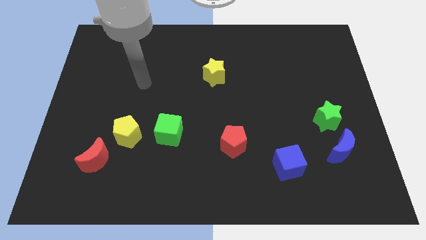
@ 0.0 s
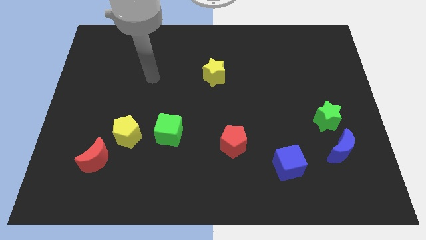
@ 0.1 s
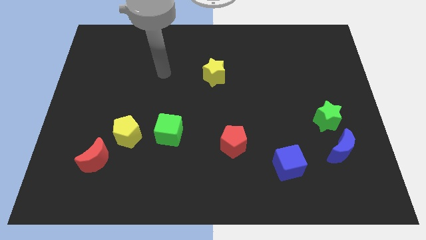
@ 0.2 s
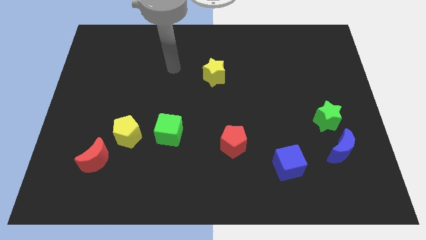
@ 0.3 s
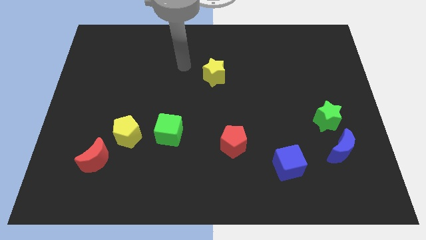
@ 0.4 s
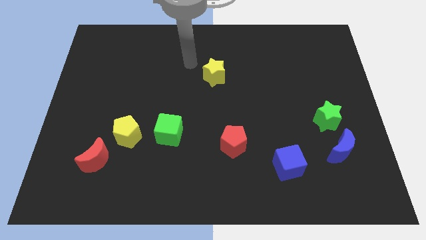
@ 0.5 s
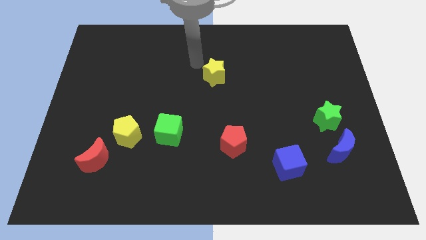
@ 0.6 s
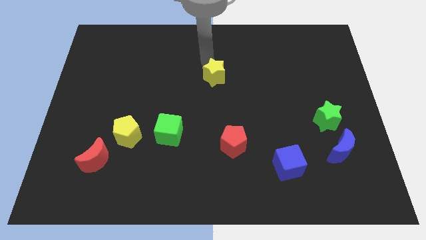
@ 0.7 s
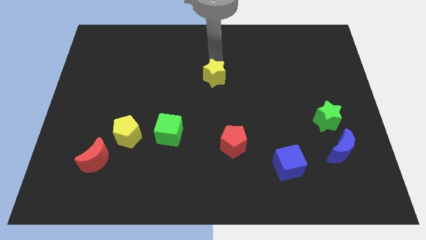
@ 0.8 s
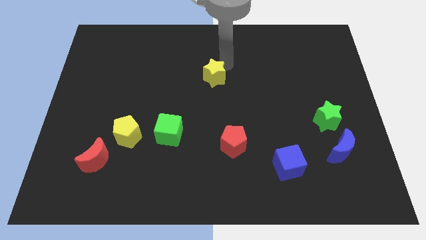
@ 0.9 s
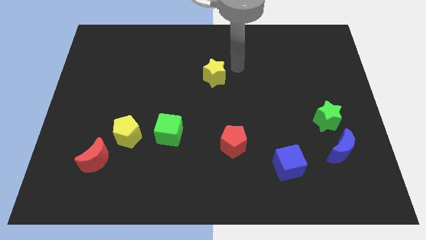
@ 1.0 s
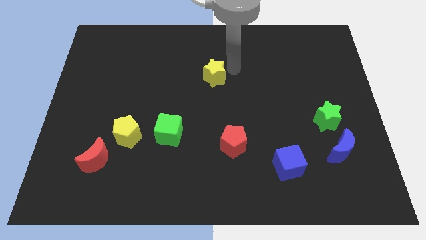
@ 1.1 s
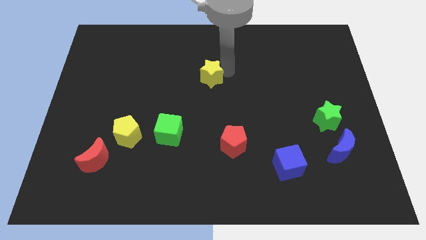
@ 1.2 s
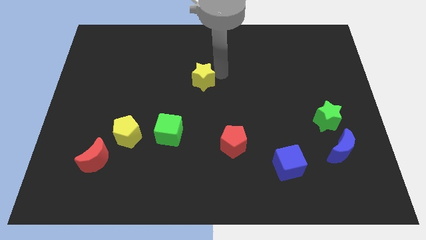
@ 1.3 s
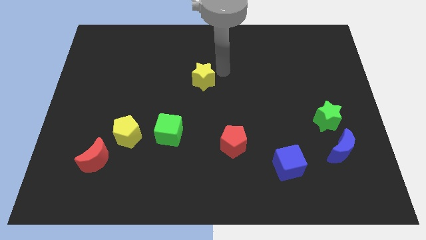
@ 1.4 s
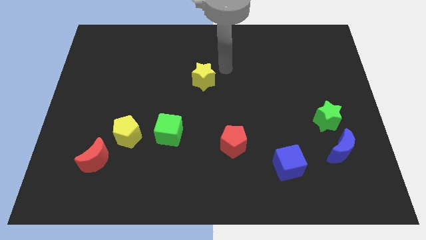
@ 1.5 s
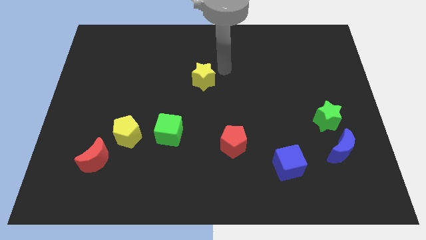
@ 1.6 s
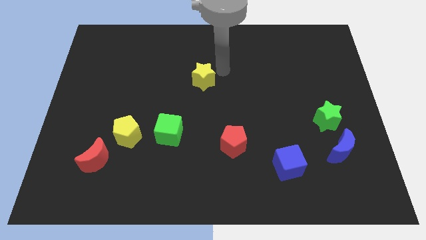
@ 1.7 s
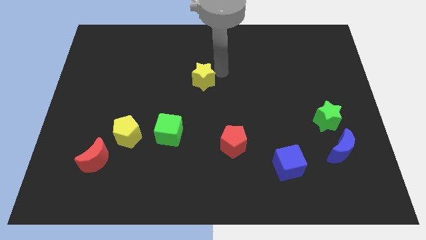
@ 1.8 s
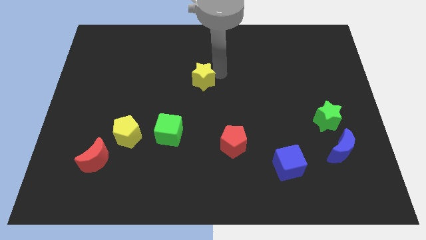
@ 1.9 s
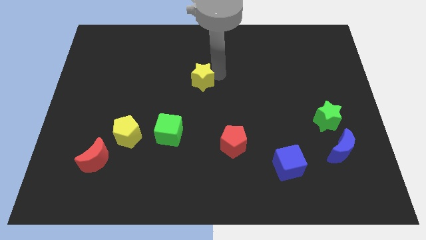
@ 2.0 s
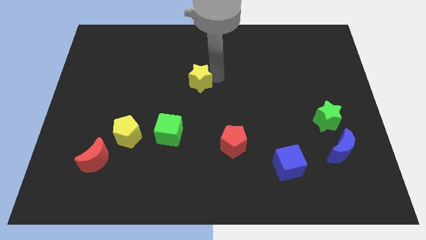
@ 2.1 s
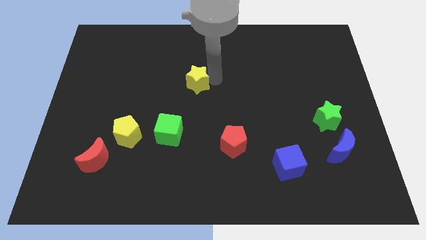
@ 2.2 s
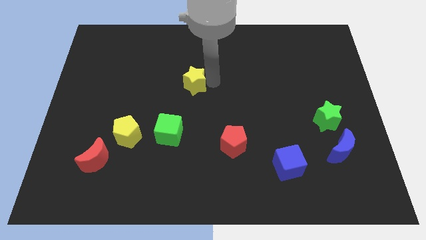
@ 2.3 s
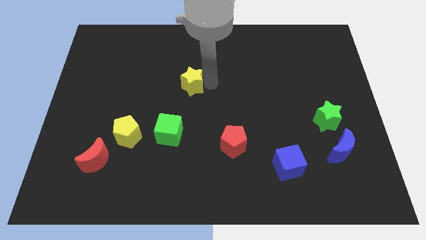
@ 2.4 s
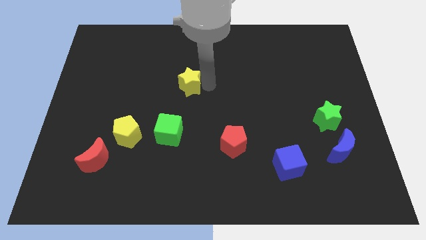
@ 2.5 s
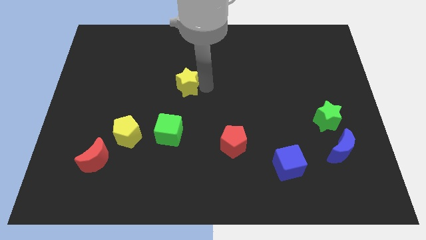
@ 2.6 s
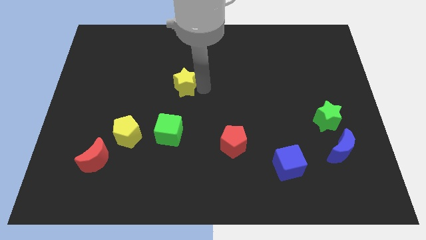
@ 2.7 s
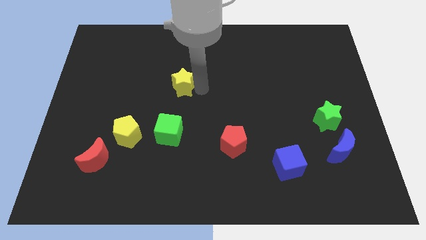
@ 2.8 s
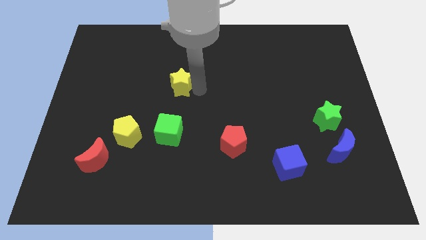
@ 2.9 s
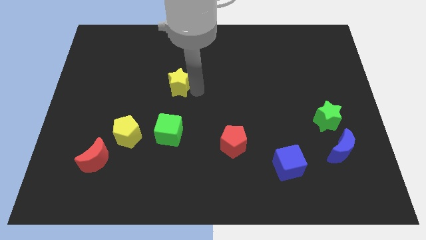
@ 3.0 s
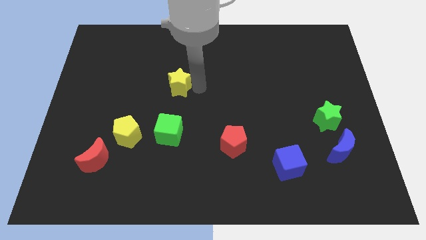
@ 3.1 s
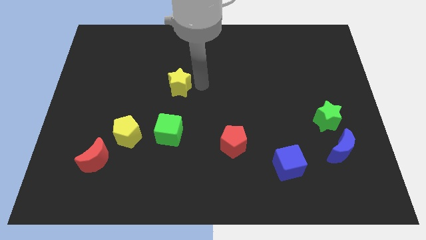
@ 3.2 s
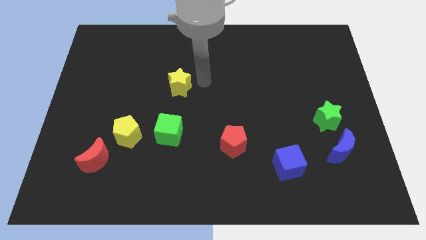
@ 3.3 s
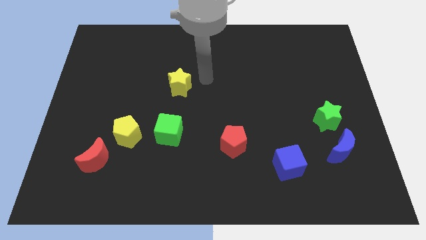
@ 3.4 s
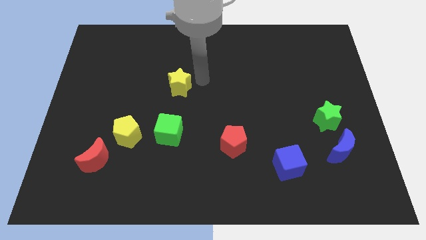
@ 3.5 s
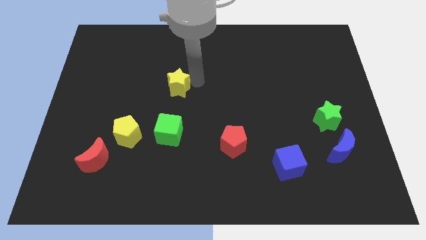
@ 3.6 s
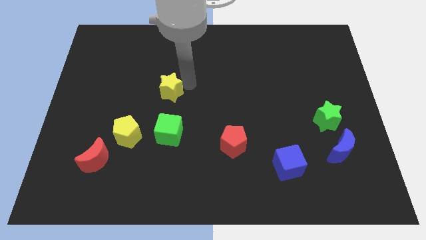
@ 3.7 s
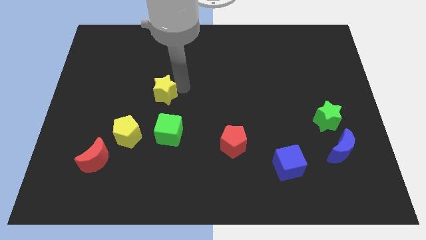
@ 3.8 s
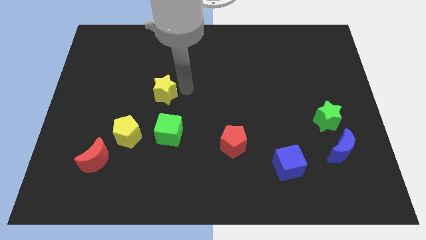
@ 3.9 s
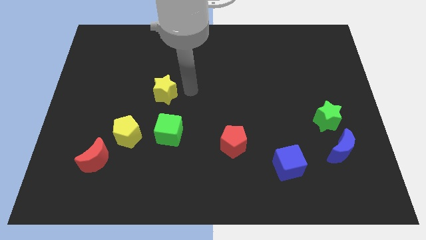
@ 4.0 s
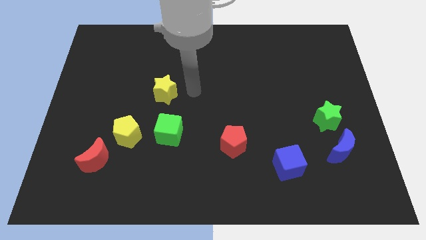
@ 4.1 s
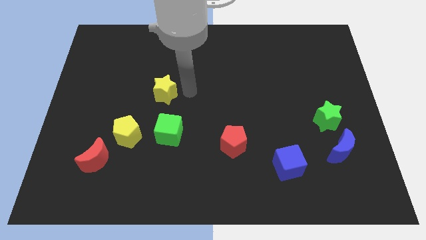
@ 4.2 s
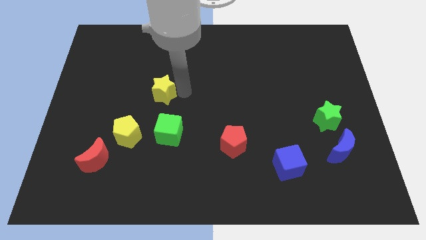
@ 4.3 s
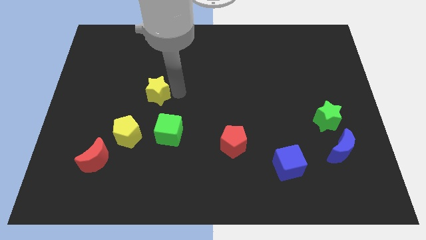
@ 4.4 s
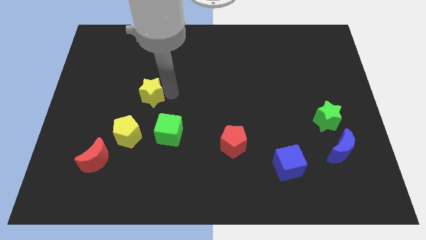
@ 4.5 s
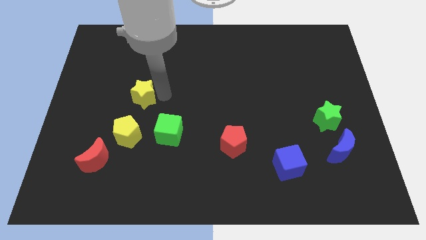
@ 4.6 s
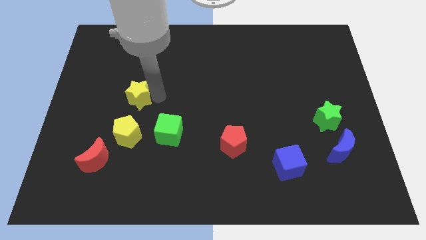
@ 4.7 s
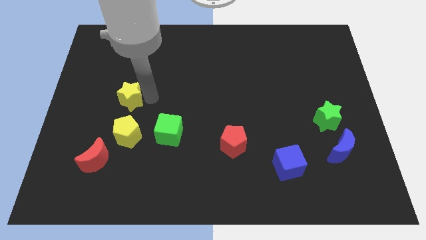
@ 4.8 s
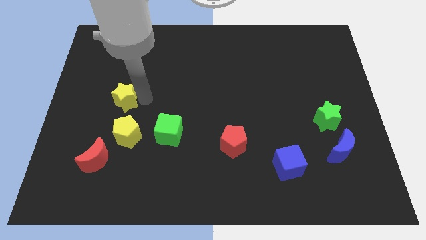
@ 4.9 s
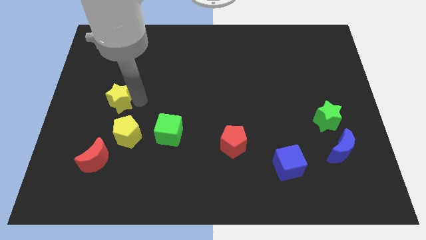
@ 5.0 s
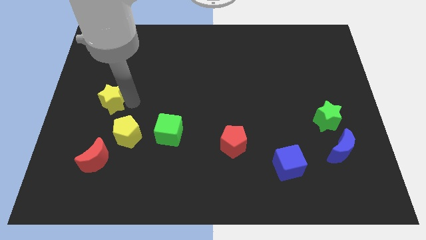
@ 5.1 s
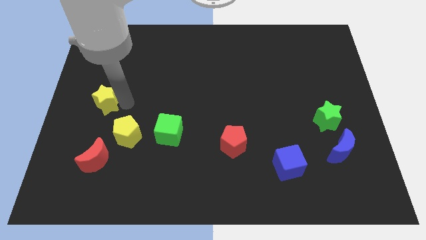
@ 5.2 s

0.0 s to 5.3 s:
slide the yellow star to the center left
